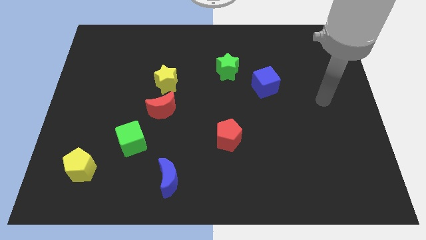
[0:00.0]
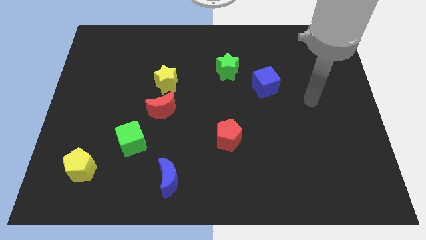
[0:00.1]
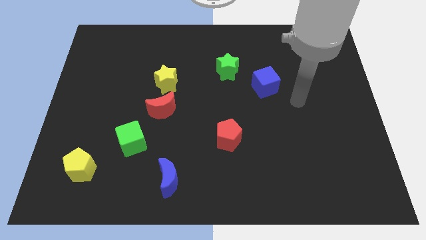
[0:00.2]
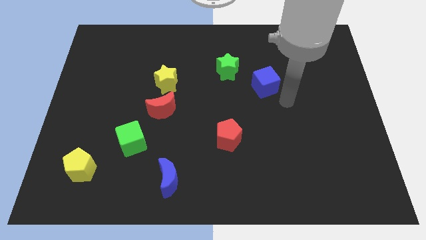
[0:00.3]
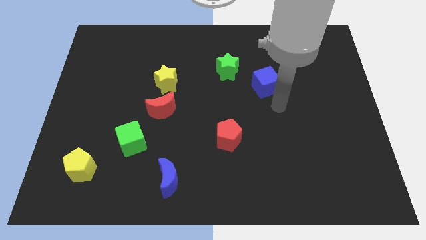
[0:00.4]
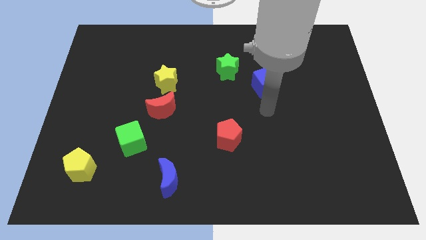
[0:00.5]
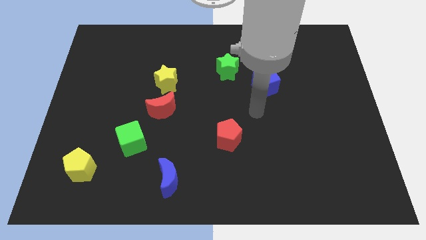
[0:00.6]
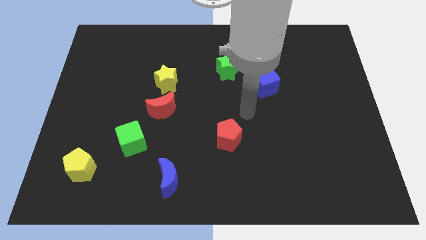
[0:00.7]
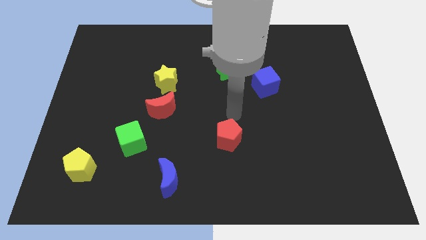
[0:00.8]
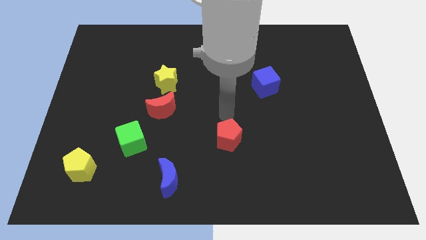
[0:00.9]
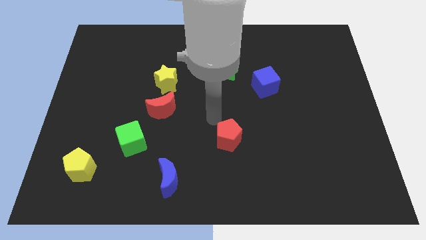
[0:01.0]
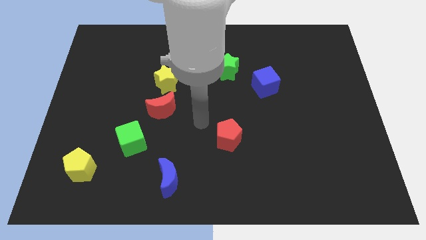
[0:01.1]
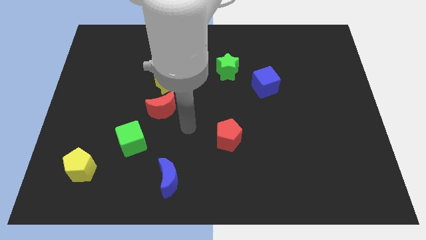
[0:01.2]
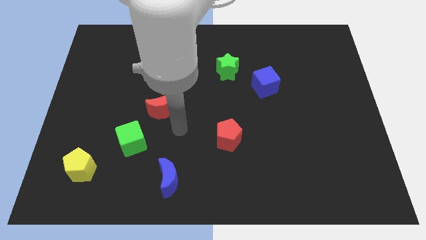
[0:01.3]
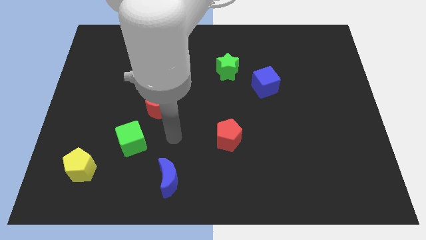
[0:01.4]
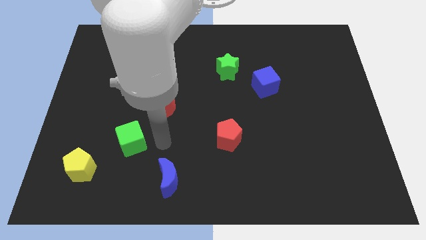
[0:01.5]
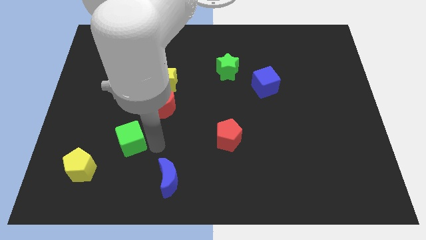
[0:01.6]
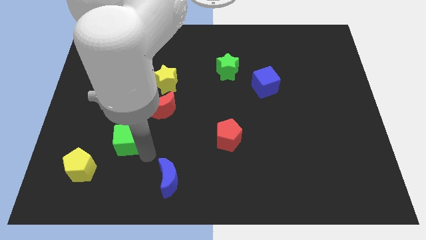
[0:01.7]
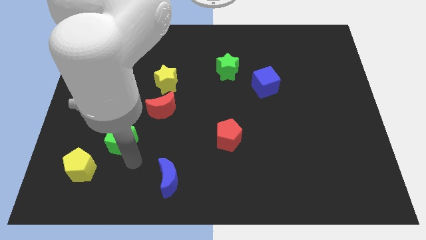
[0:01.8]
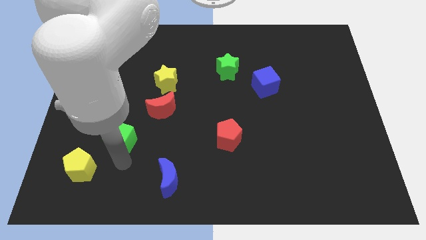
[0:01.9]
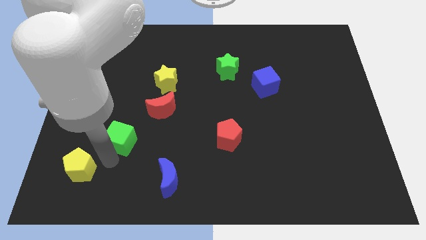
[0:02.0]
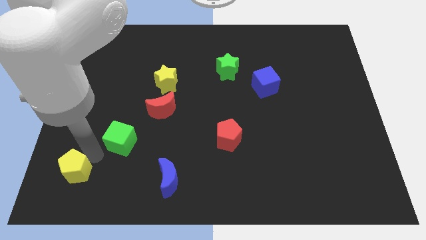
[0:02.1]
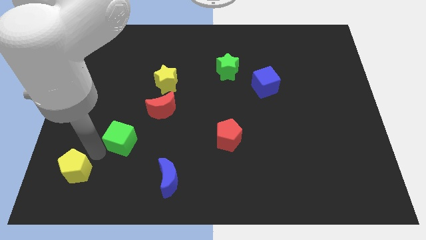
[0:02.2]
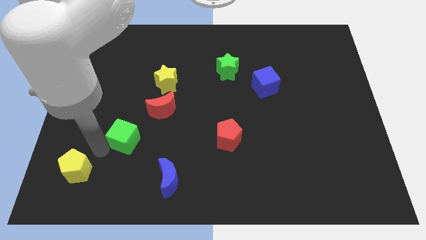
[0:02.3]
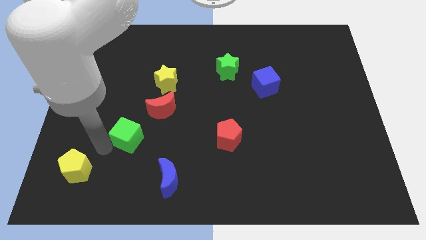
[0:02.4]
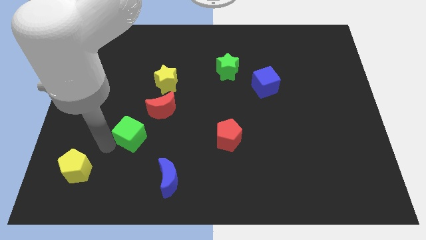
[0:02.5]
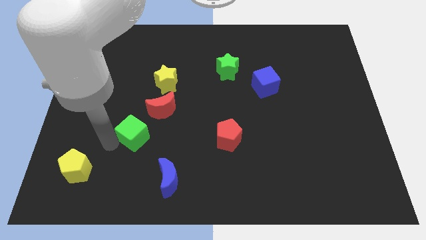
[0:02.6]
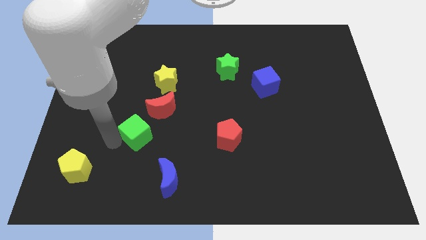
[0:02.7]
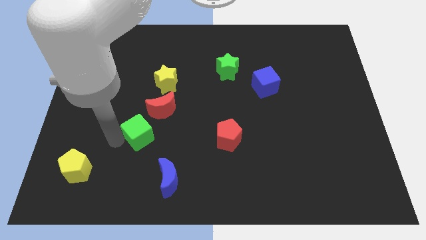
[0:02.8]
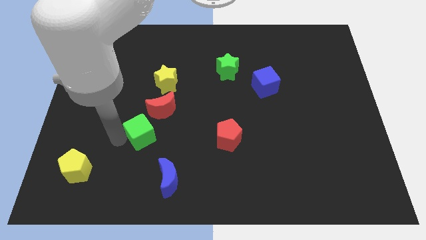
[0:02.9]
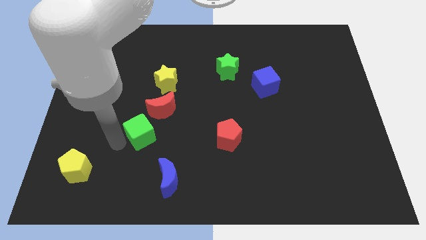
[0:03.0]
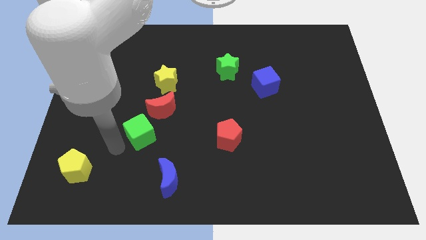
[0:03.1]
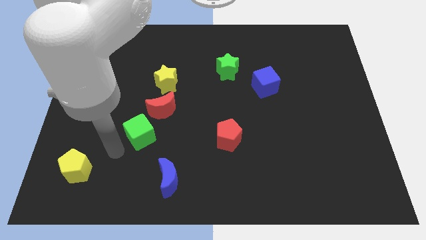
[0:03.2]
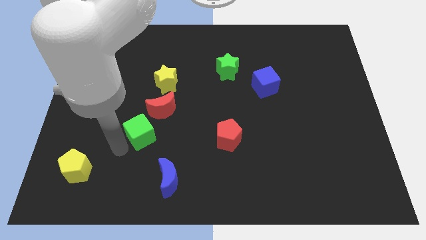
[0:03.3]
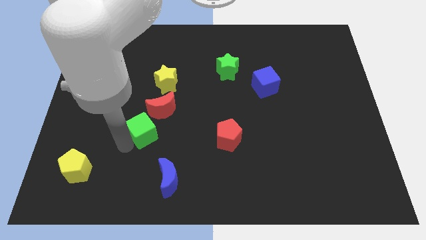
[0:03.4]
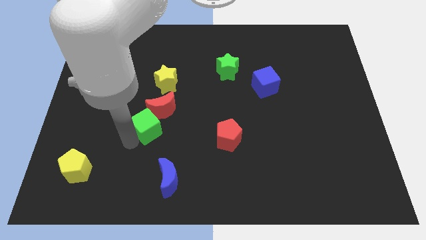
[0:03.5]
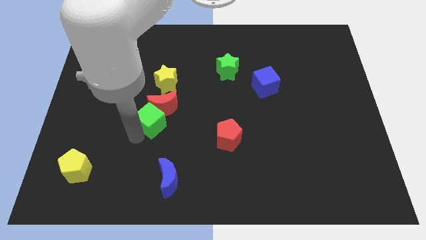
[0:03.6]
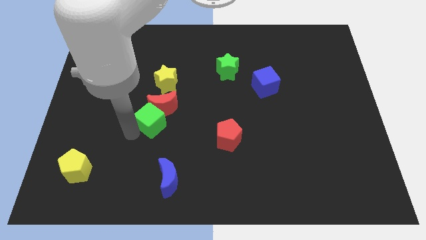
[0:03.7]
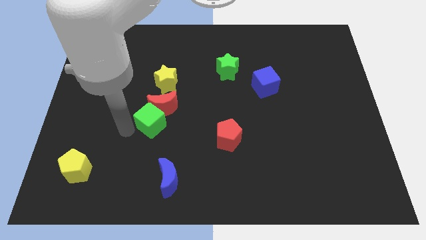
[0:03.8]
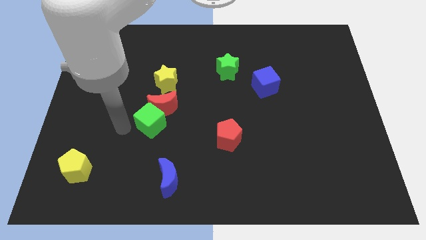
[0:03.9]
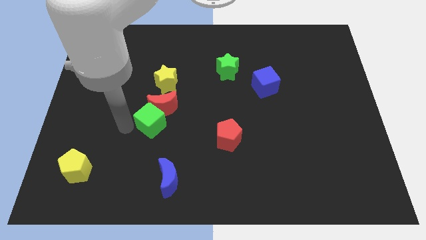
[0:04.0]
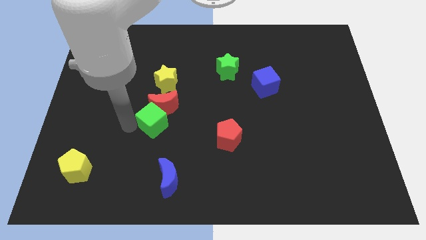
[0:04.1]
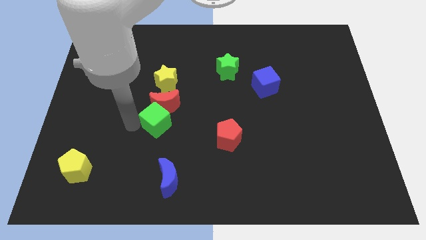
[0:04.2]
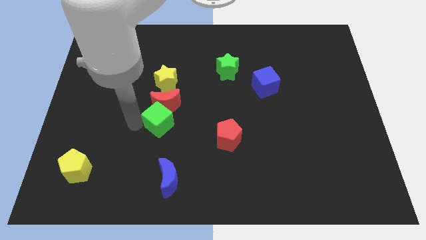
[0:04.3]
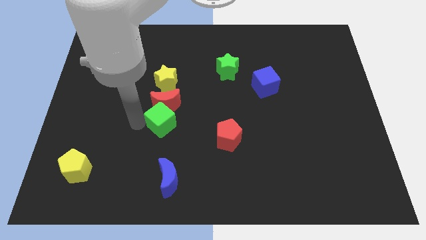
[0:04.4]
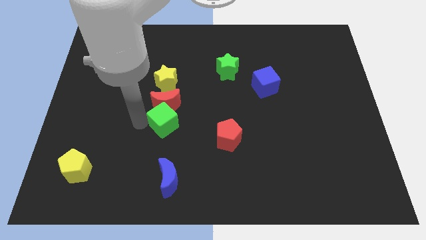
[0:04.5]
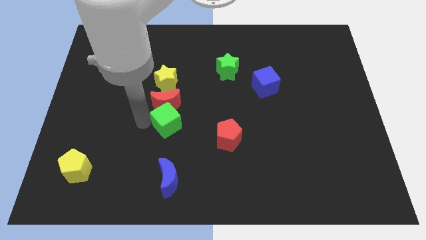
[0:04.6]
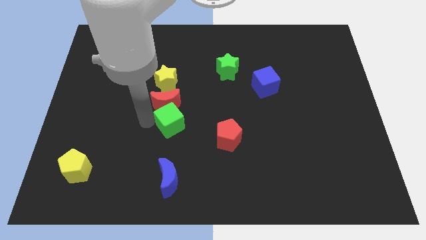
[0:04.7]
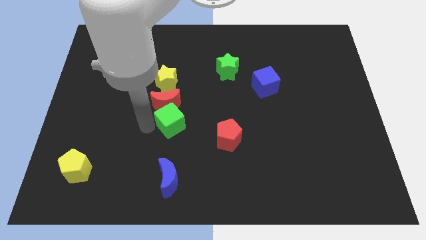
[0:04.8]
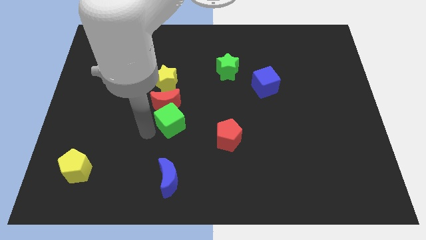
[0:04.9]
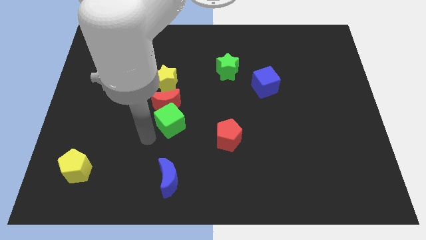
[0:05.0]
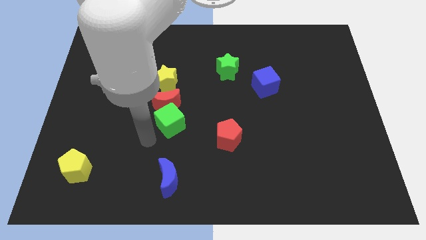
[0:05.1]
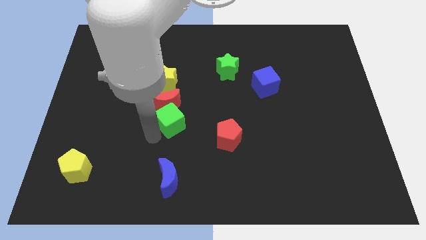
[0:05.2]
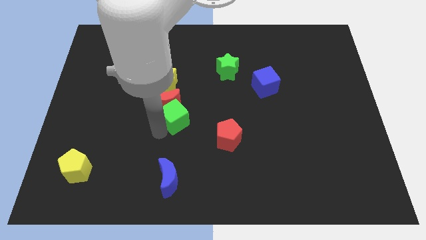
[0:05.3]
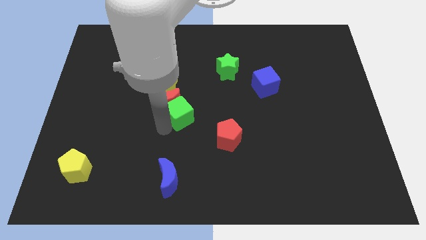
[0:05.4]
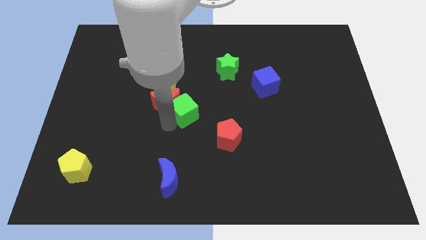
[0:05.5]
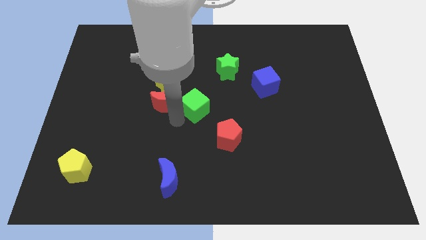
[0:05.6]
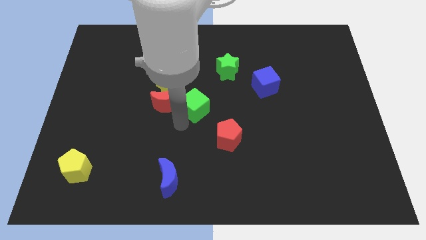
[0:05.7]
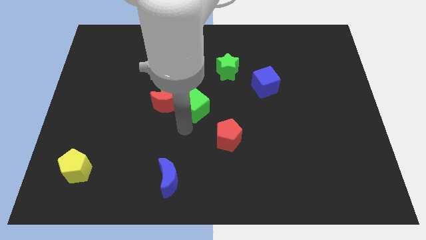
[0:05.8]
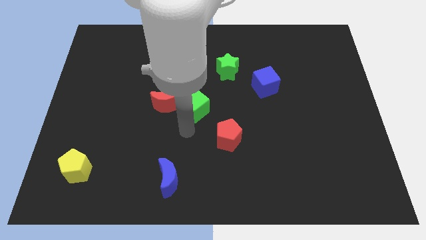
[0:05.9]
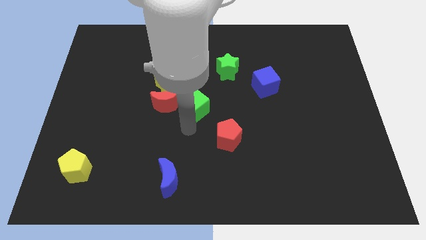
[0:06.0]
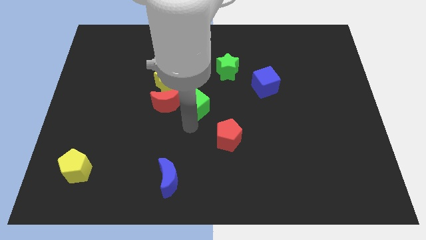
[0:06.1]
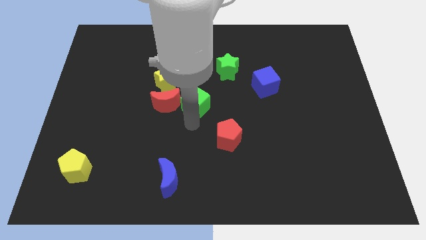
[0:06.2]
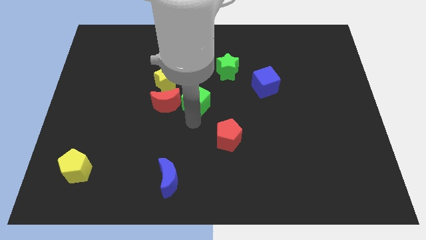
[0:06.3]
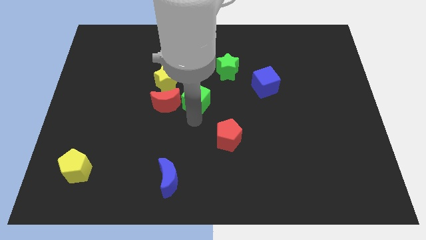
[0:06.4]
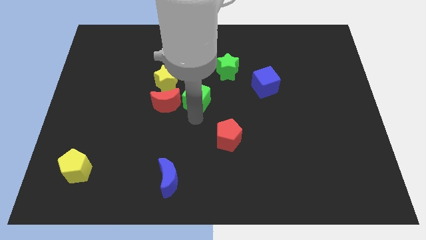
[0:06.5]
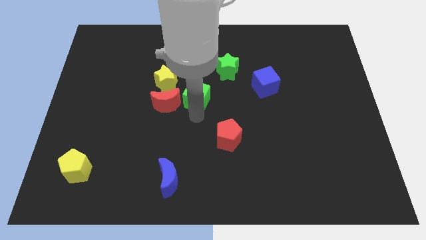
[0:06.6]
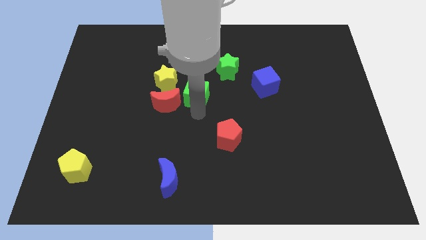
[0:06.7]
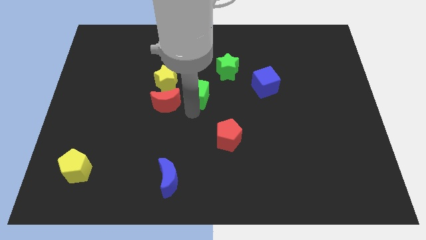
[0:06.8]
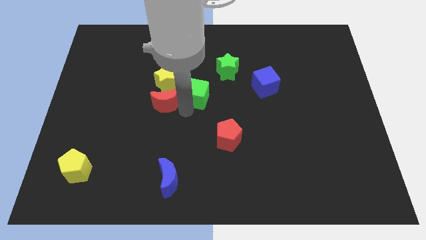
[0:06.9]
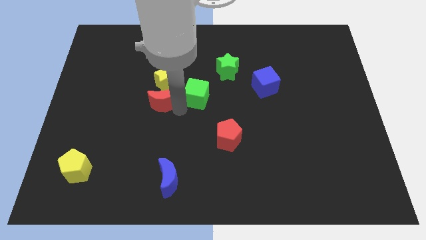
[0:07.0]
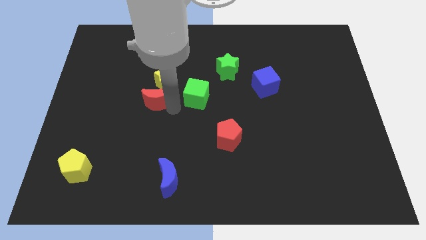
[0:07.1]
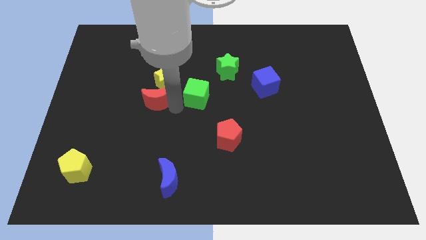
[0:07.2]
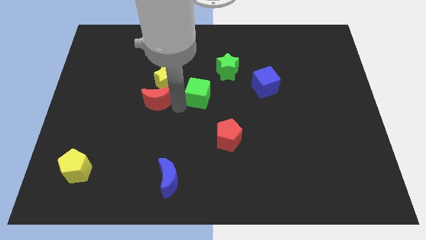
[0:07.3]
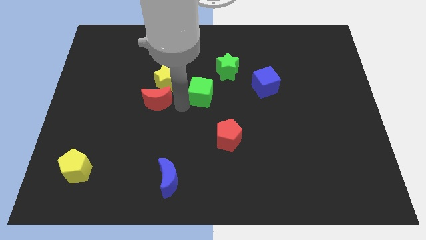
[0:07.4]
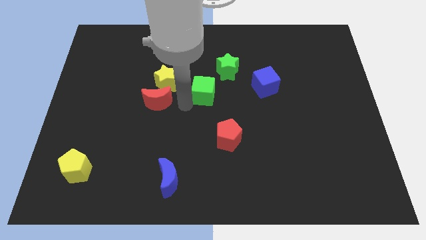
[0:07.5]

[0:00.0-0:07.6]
push the green cube left of the blue cube
